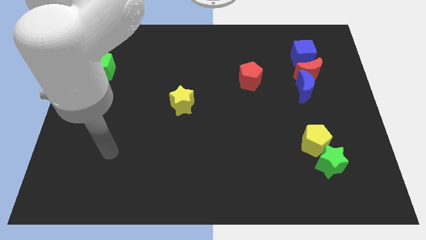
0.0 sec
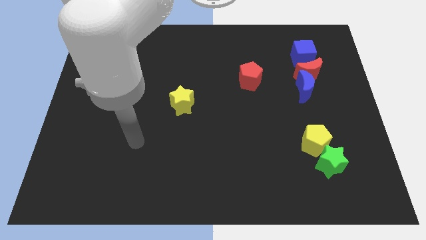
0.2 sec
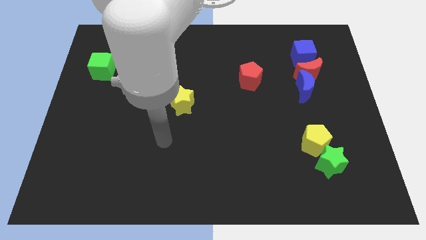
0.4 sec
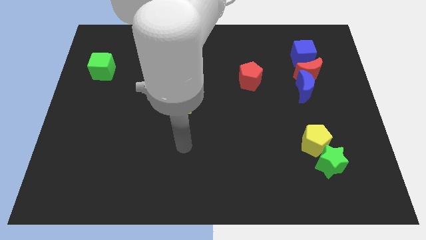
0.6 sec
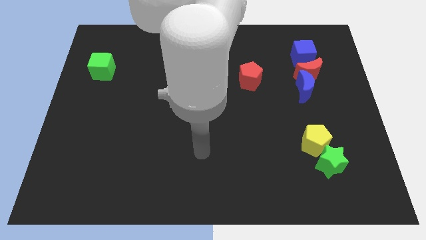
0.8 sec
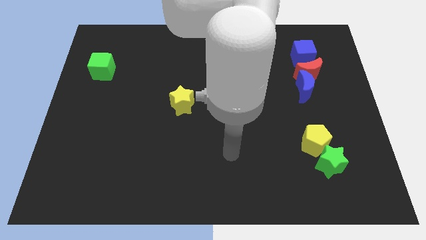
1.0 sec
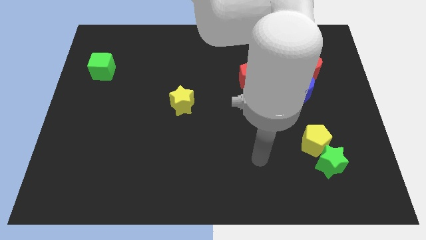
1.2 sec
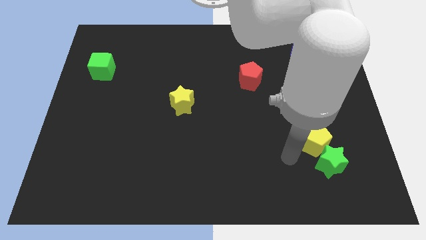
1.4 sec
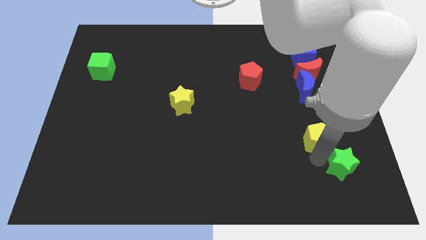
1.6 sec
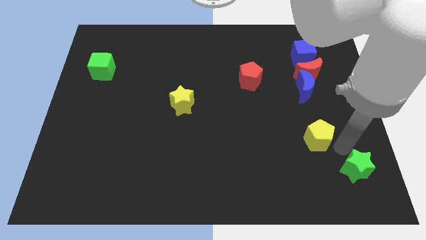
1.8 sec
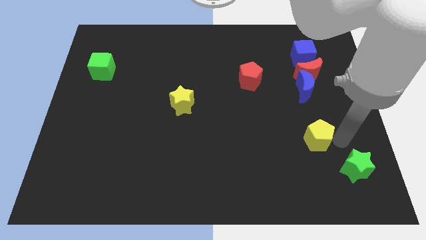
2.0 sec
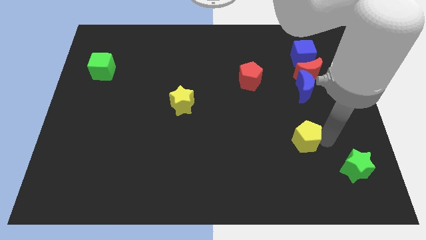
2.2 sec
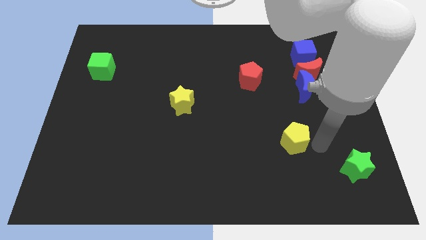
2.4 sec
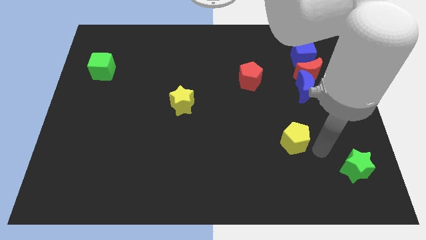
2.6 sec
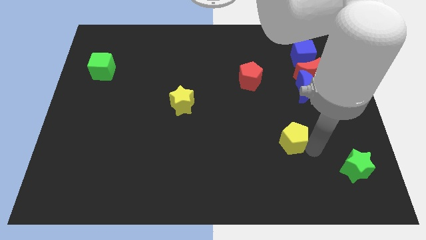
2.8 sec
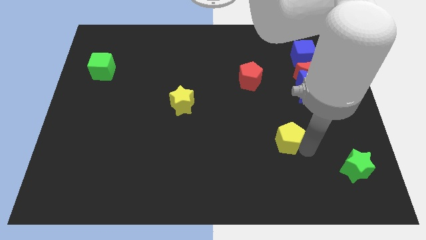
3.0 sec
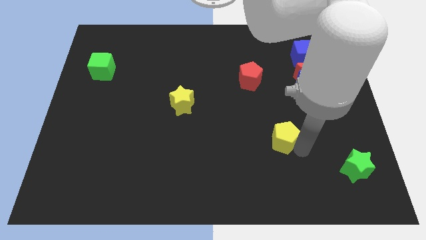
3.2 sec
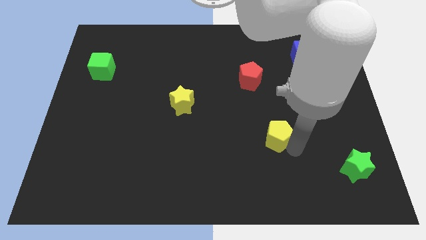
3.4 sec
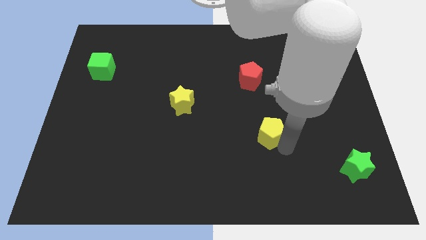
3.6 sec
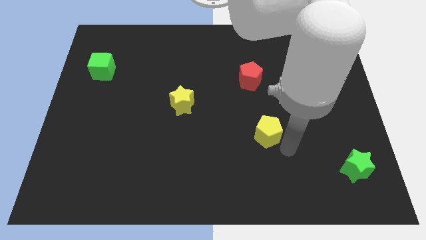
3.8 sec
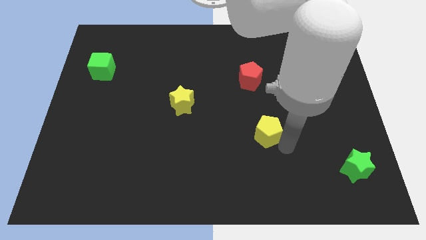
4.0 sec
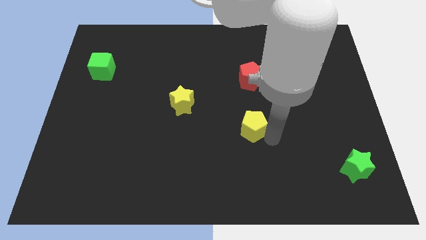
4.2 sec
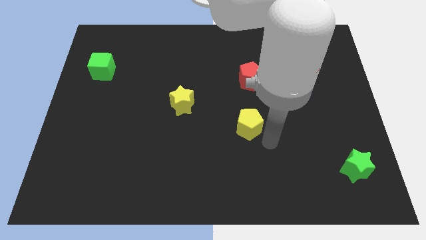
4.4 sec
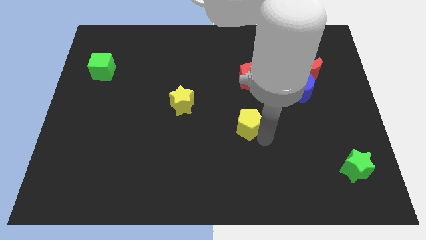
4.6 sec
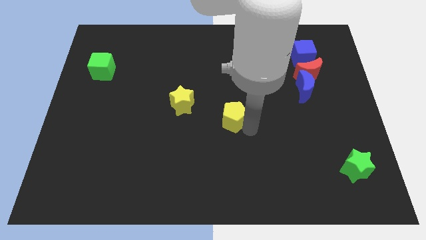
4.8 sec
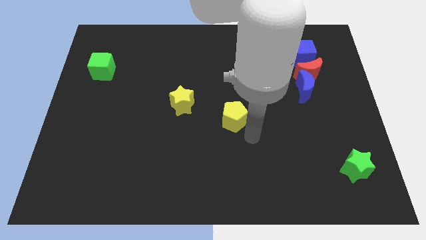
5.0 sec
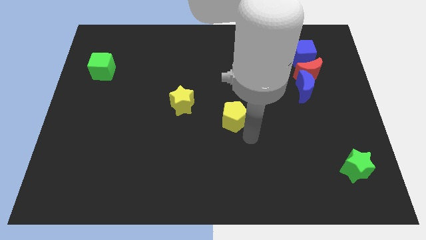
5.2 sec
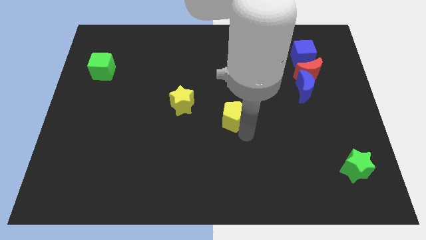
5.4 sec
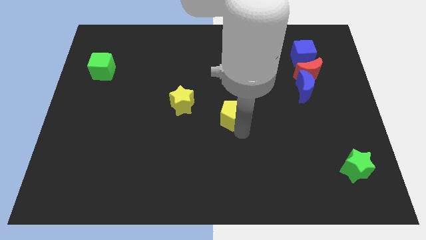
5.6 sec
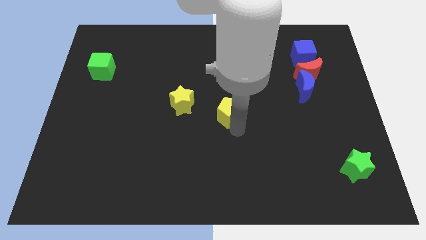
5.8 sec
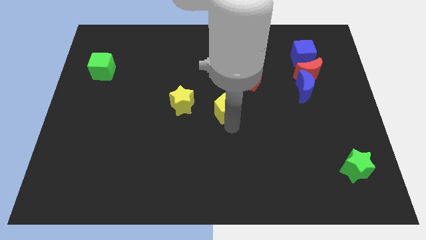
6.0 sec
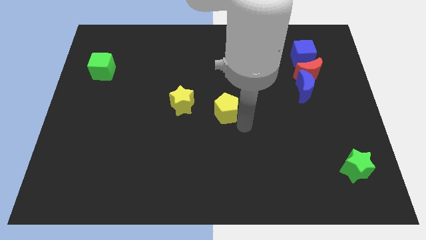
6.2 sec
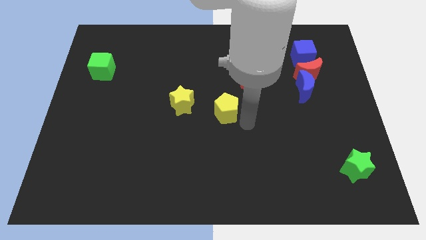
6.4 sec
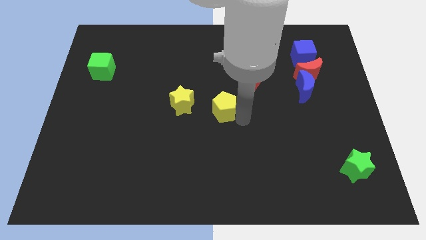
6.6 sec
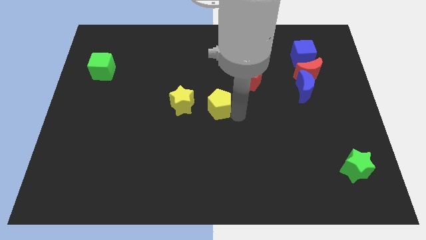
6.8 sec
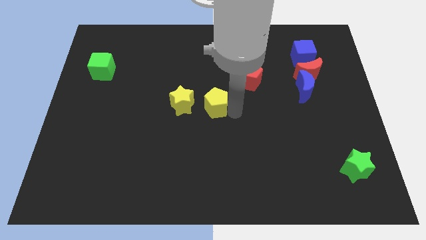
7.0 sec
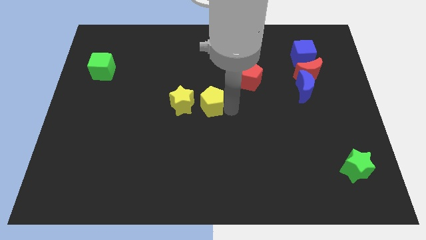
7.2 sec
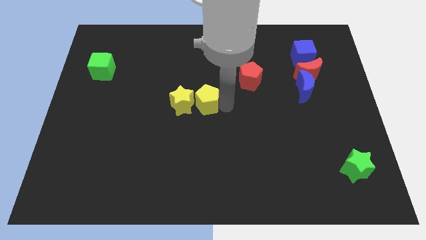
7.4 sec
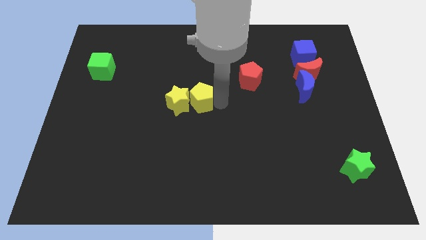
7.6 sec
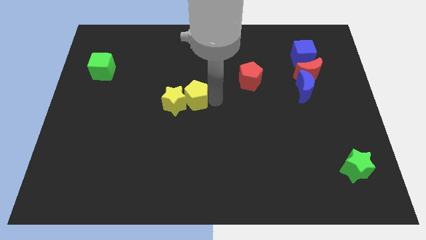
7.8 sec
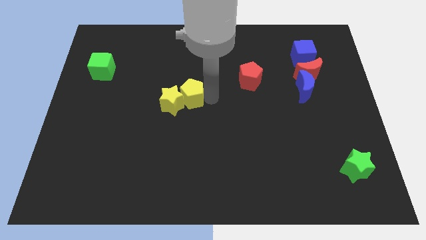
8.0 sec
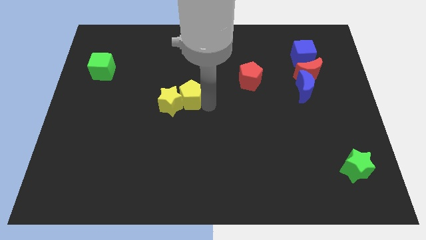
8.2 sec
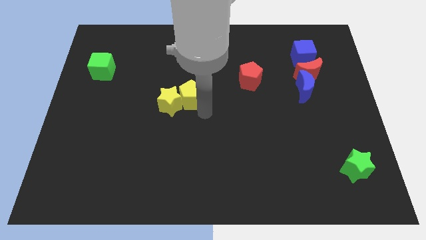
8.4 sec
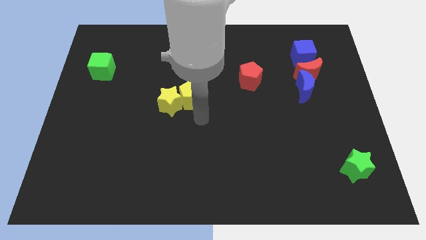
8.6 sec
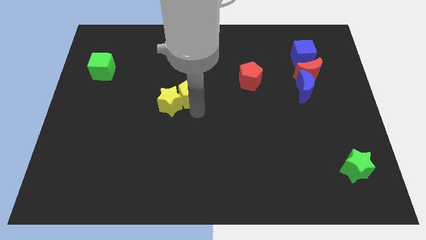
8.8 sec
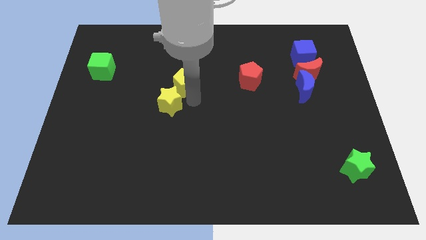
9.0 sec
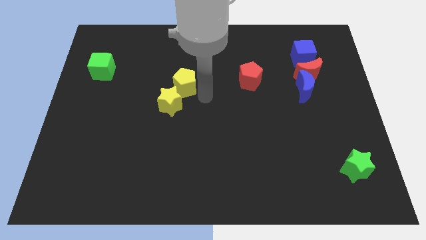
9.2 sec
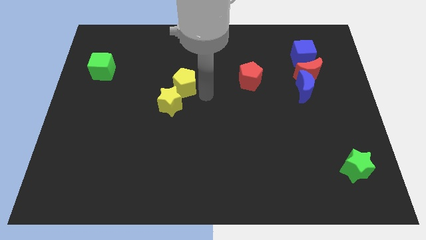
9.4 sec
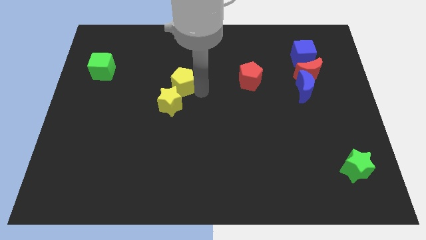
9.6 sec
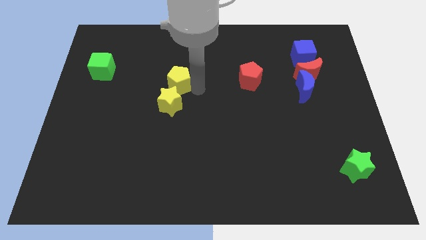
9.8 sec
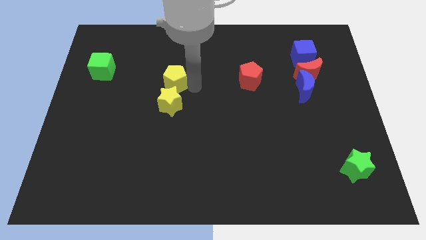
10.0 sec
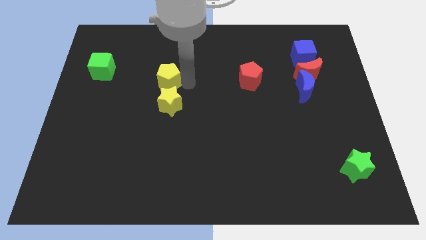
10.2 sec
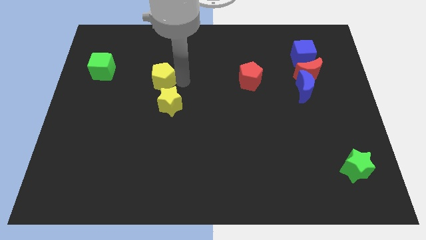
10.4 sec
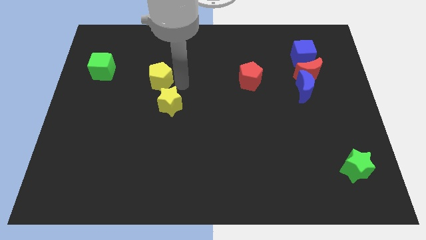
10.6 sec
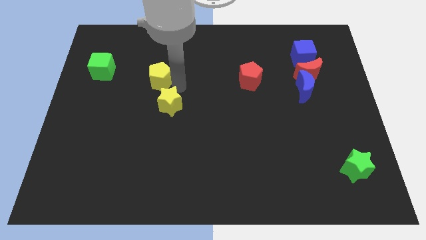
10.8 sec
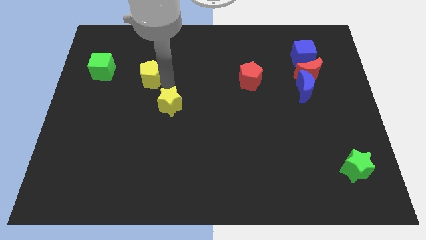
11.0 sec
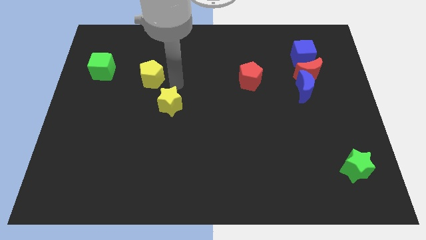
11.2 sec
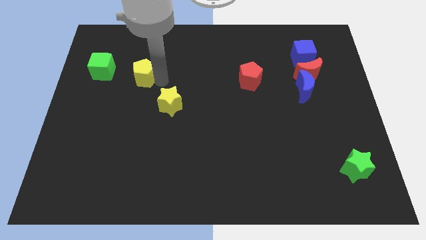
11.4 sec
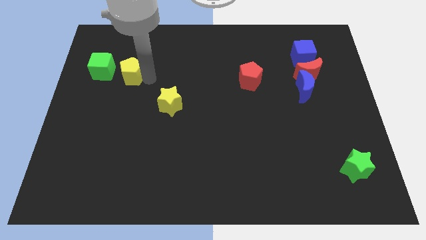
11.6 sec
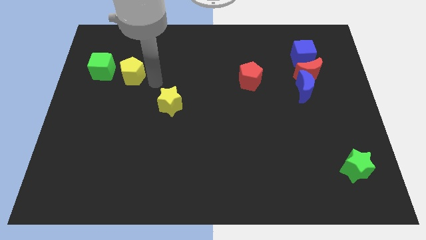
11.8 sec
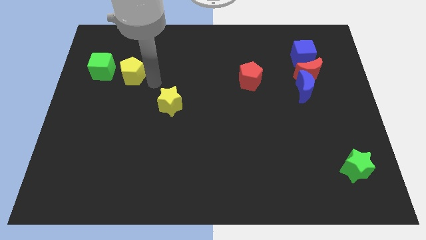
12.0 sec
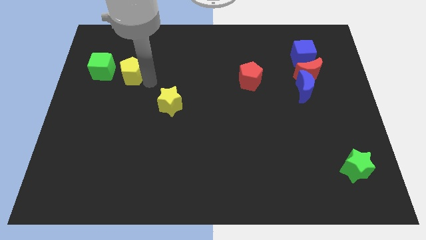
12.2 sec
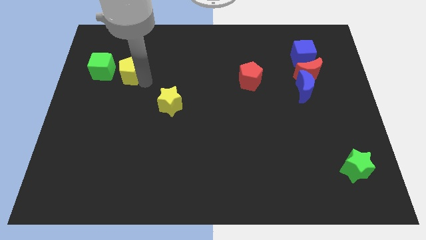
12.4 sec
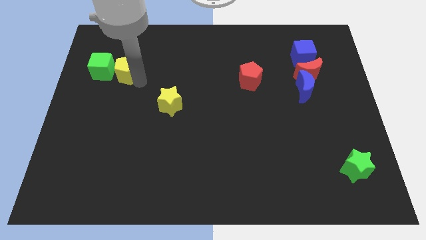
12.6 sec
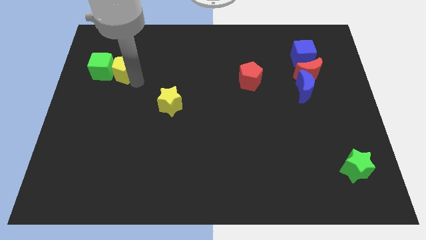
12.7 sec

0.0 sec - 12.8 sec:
slide the yellow pentagon towards the green cube

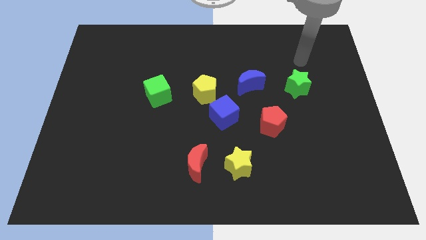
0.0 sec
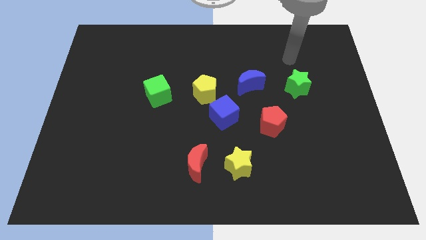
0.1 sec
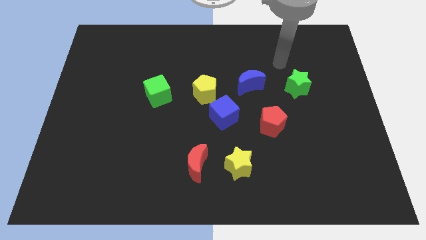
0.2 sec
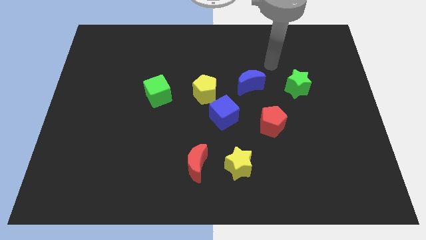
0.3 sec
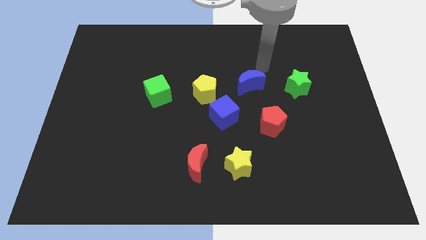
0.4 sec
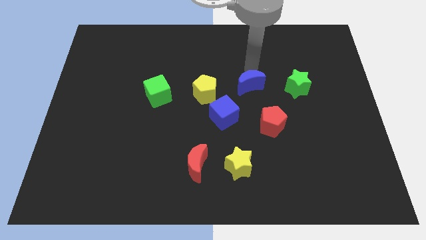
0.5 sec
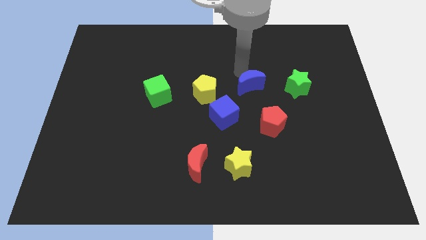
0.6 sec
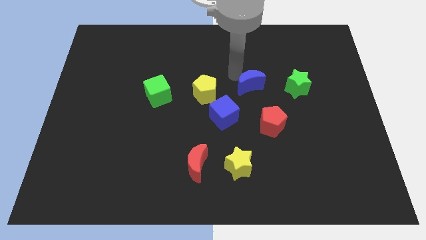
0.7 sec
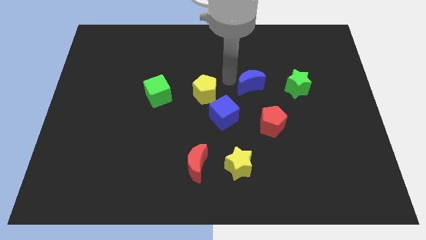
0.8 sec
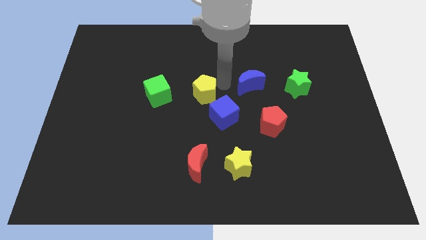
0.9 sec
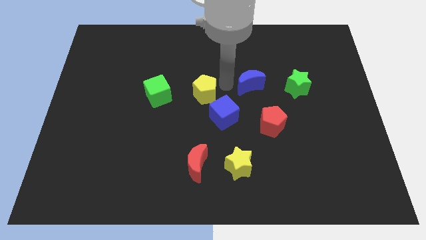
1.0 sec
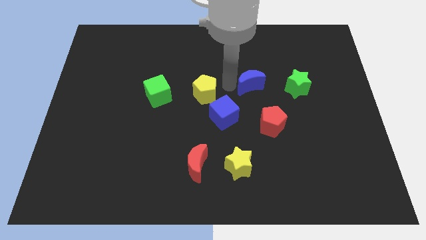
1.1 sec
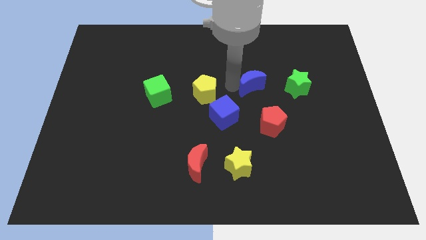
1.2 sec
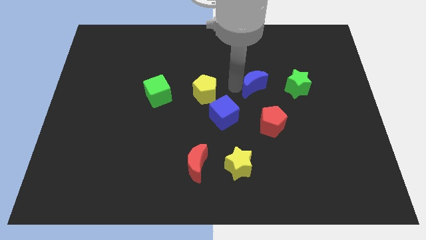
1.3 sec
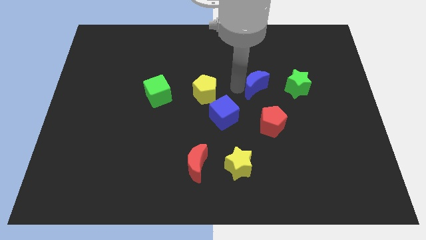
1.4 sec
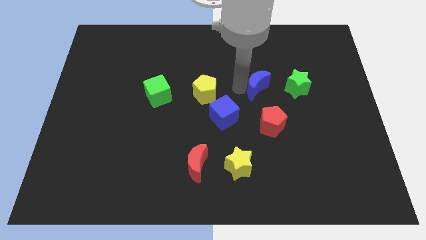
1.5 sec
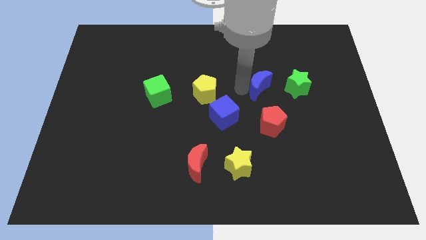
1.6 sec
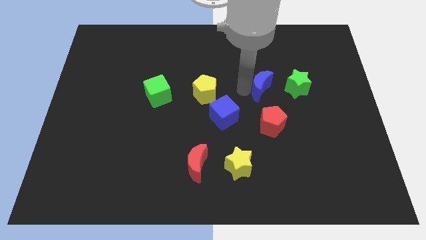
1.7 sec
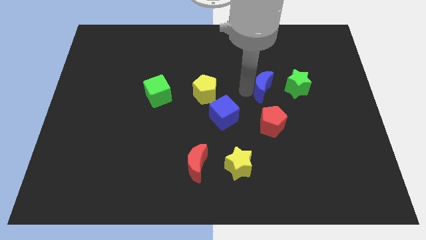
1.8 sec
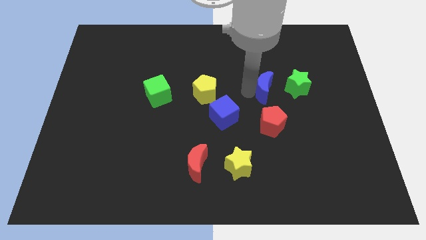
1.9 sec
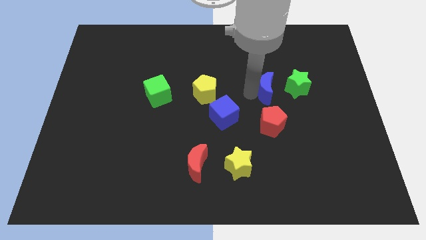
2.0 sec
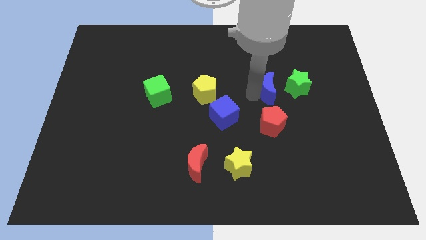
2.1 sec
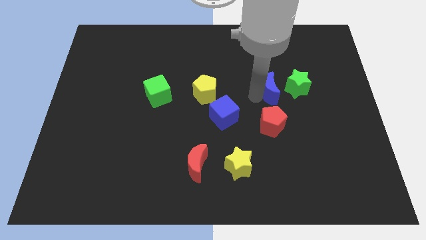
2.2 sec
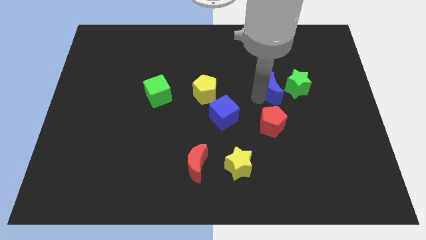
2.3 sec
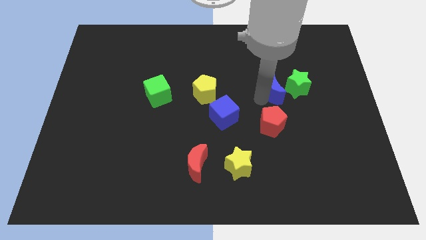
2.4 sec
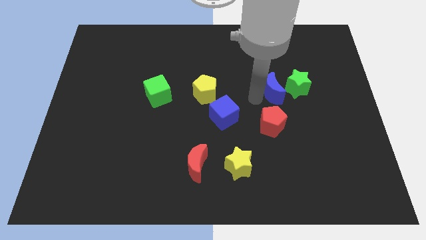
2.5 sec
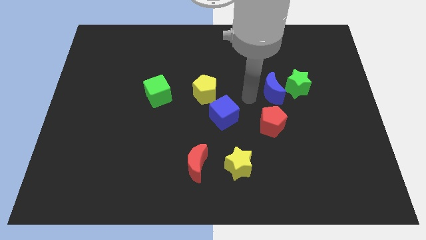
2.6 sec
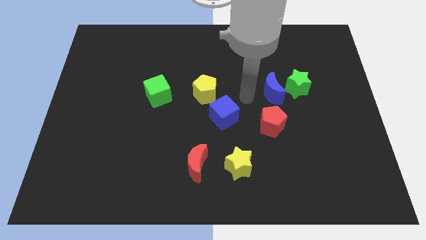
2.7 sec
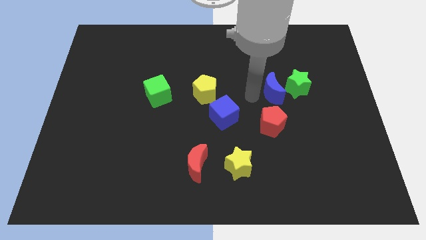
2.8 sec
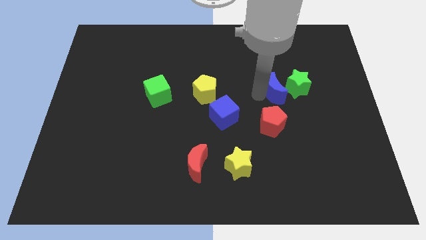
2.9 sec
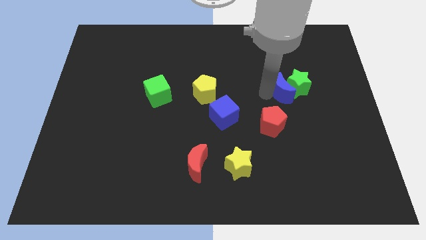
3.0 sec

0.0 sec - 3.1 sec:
put the blue moon towards the green star
